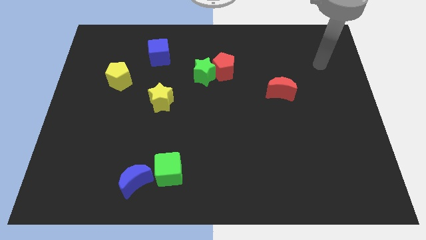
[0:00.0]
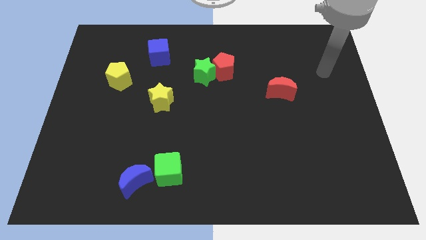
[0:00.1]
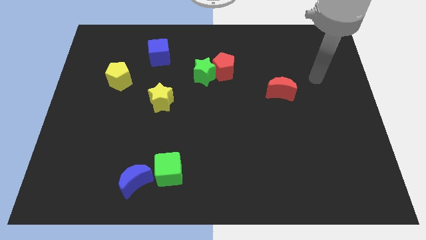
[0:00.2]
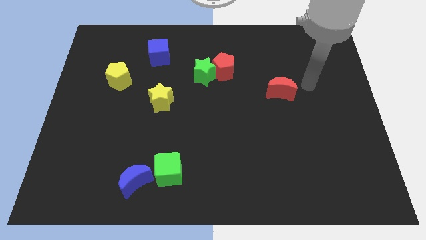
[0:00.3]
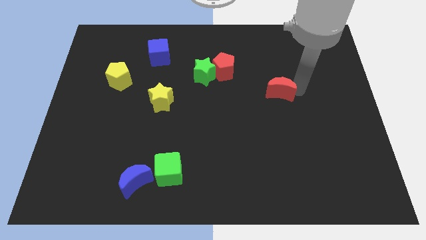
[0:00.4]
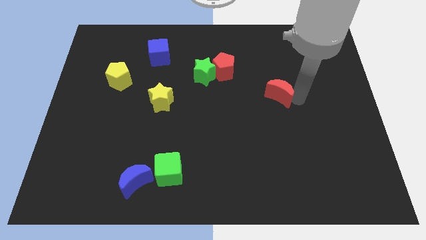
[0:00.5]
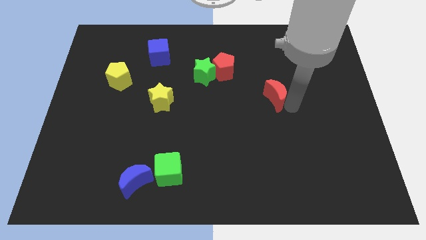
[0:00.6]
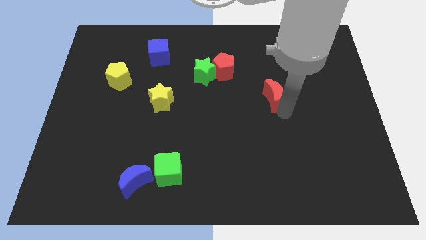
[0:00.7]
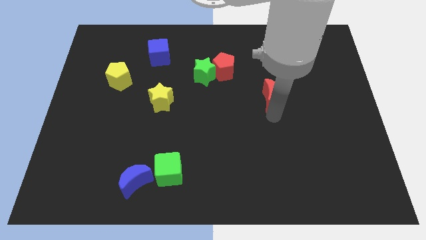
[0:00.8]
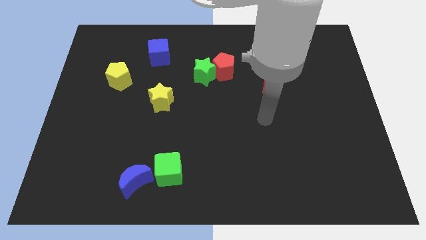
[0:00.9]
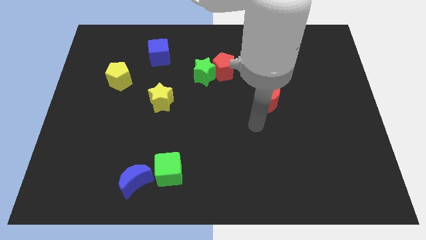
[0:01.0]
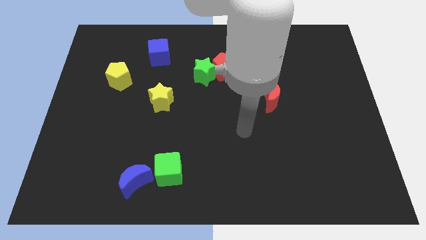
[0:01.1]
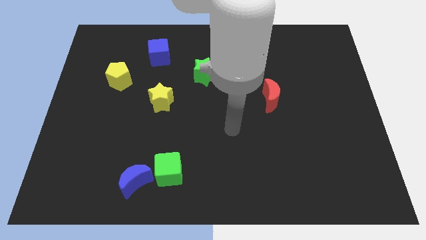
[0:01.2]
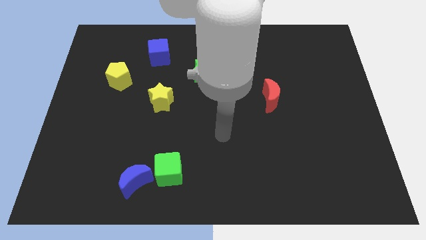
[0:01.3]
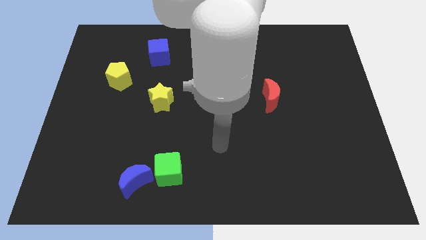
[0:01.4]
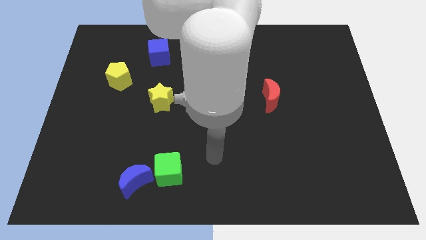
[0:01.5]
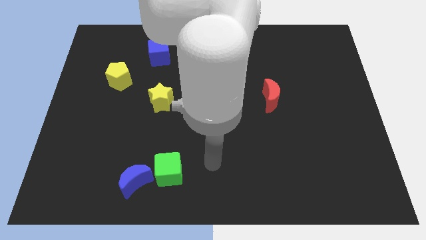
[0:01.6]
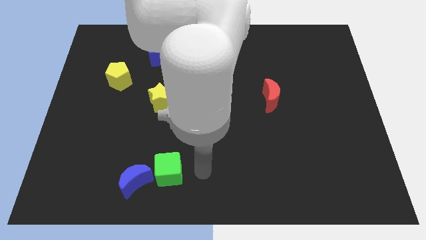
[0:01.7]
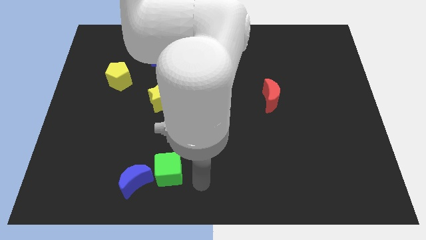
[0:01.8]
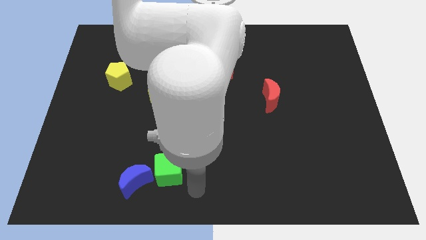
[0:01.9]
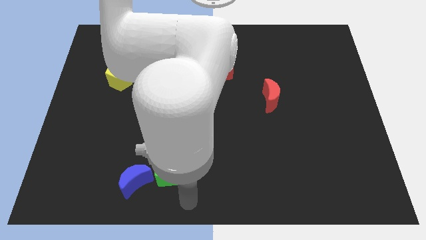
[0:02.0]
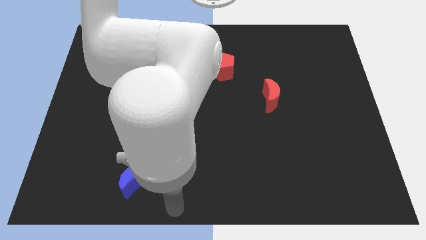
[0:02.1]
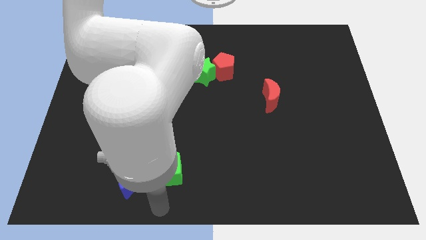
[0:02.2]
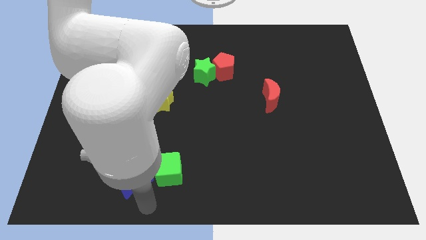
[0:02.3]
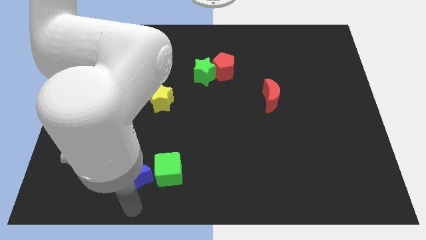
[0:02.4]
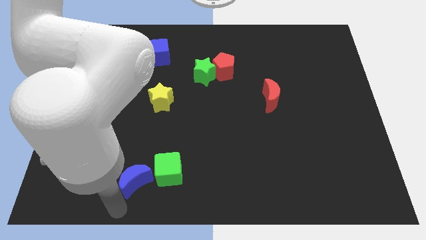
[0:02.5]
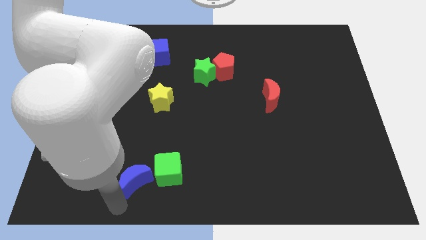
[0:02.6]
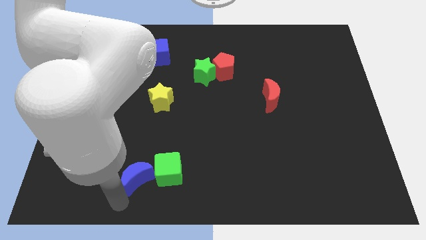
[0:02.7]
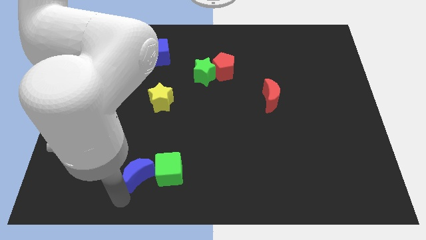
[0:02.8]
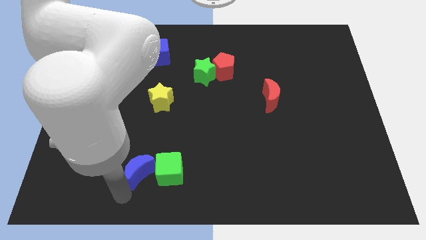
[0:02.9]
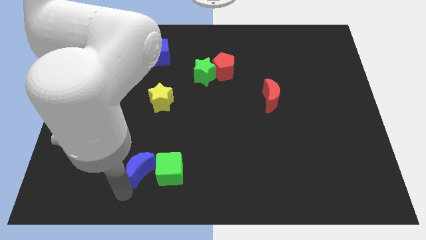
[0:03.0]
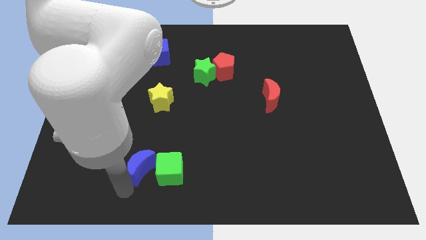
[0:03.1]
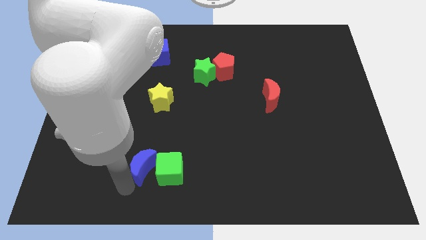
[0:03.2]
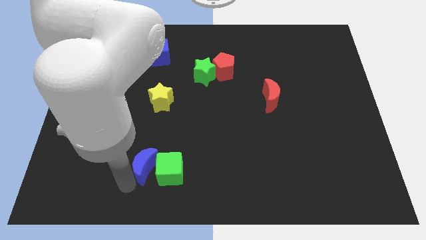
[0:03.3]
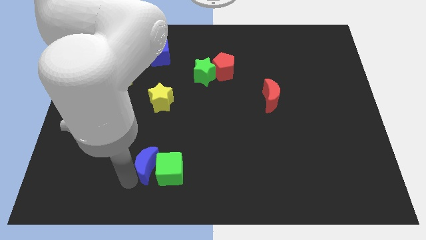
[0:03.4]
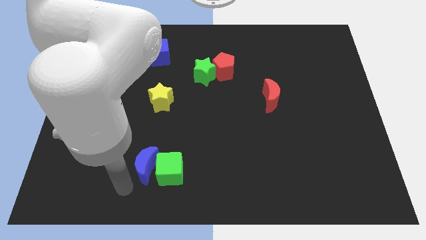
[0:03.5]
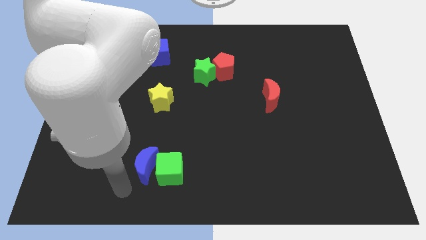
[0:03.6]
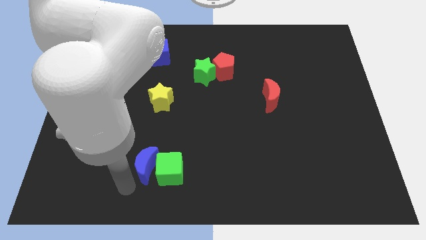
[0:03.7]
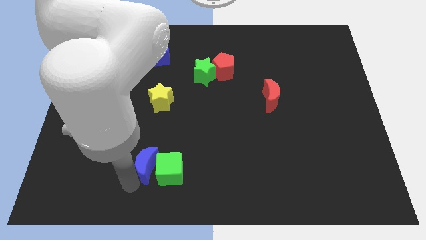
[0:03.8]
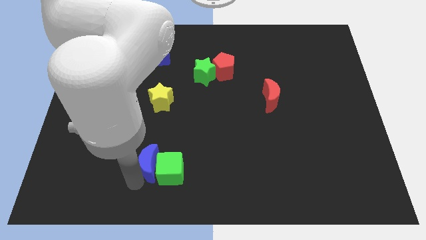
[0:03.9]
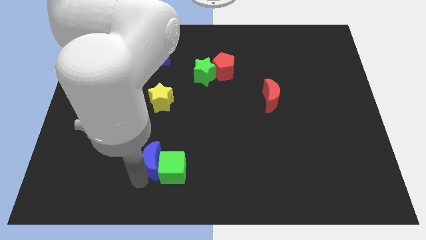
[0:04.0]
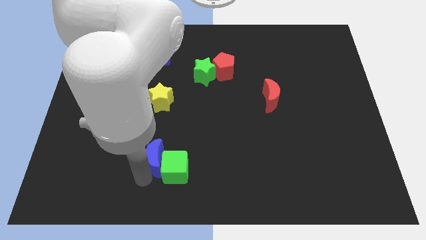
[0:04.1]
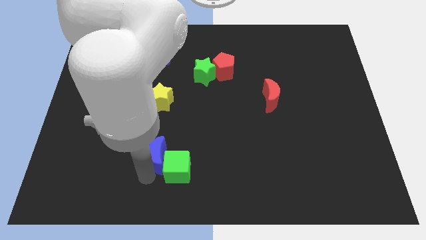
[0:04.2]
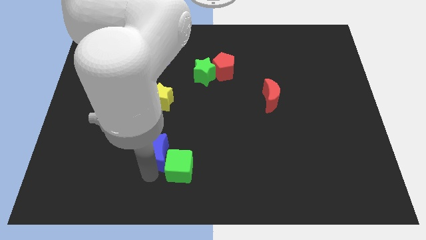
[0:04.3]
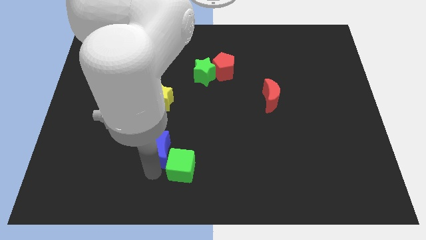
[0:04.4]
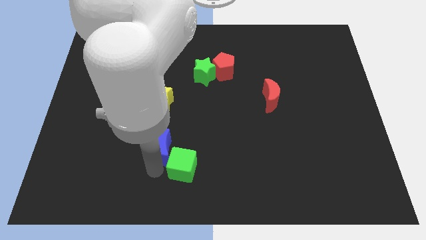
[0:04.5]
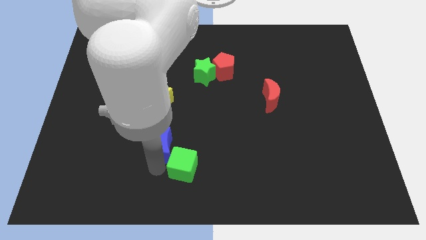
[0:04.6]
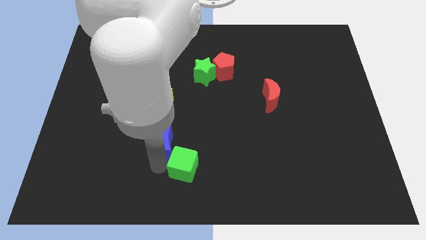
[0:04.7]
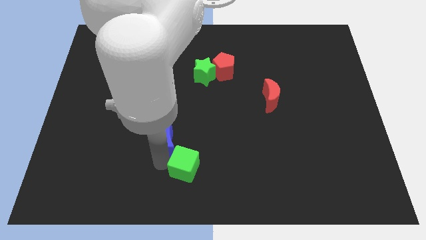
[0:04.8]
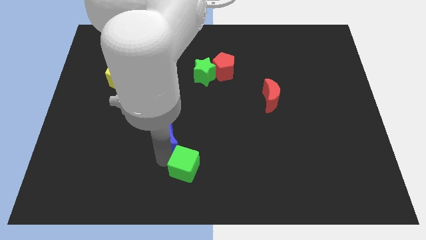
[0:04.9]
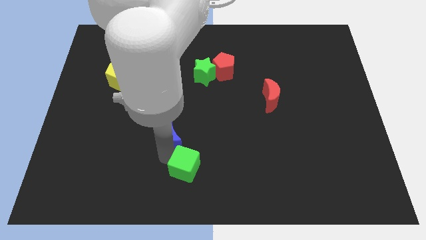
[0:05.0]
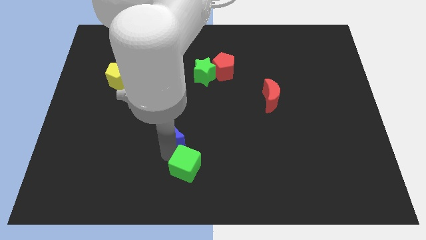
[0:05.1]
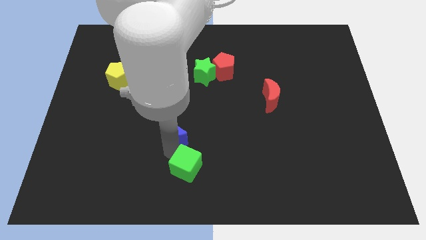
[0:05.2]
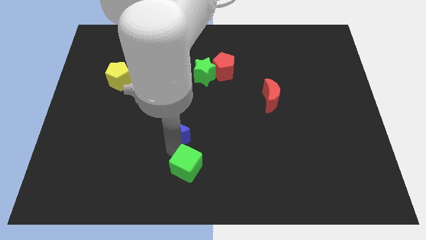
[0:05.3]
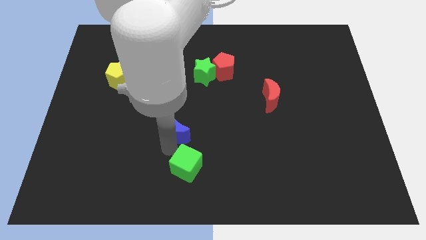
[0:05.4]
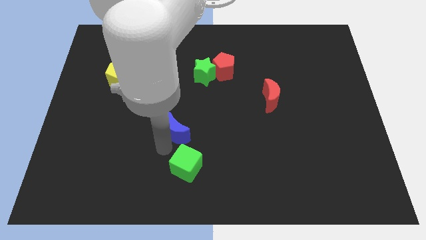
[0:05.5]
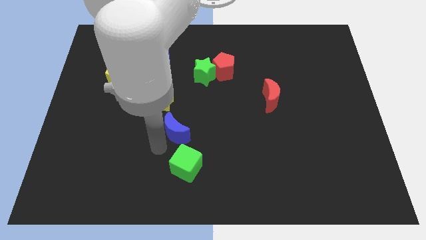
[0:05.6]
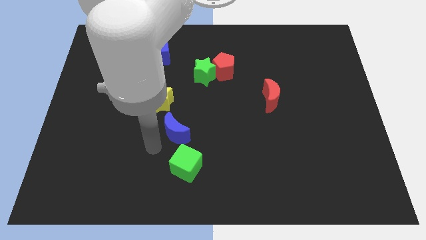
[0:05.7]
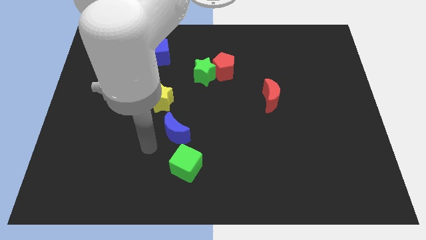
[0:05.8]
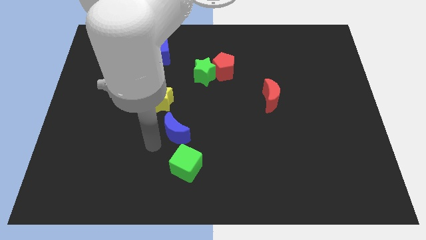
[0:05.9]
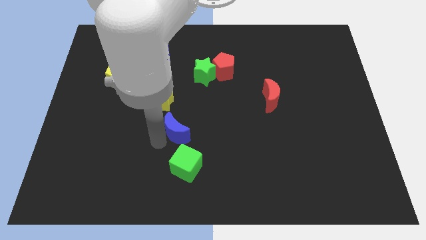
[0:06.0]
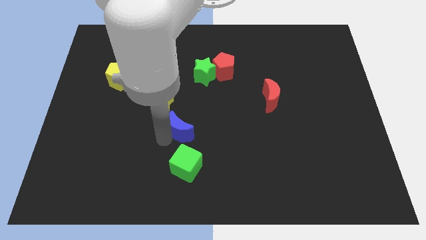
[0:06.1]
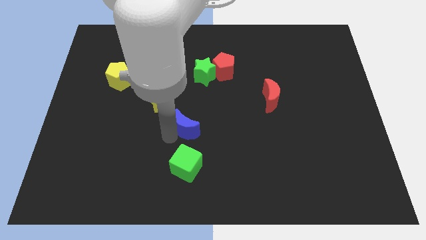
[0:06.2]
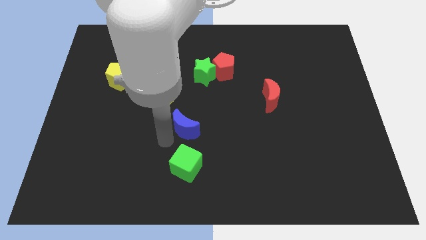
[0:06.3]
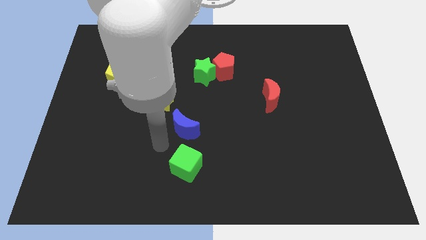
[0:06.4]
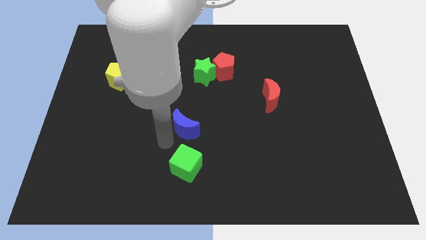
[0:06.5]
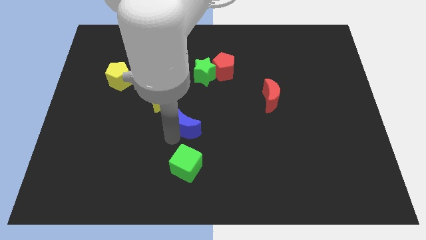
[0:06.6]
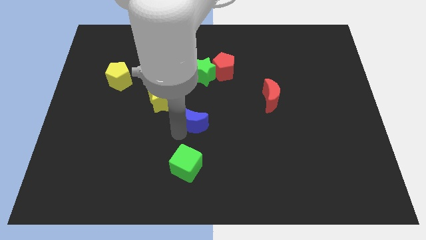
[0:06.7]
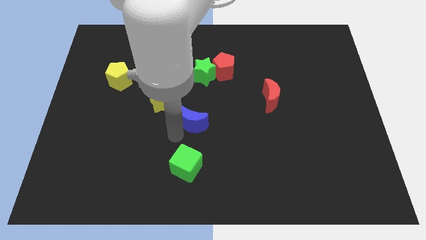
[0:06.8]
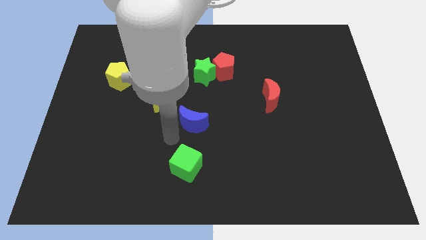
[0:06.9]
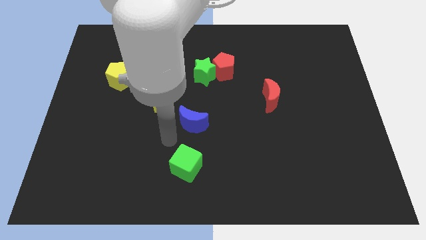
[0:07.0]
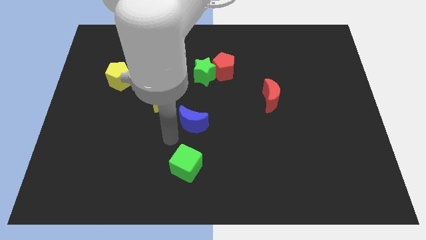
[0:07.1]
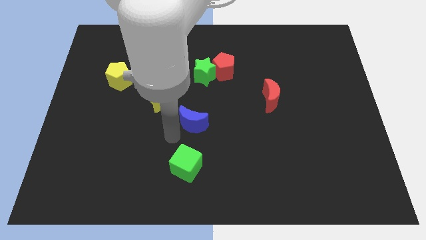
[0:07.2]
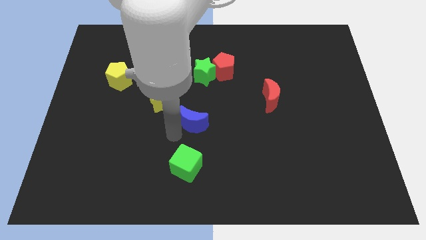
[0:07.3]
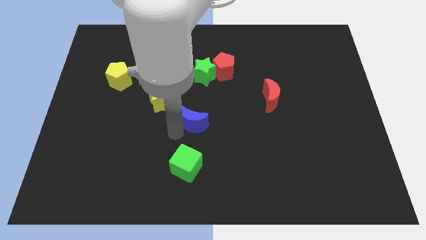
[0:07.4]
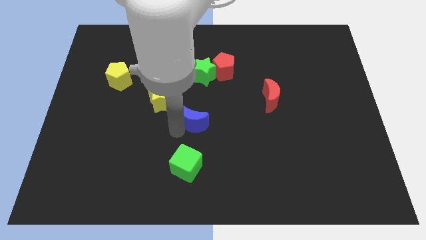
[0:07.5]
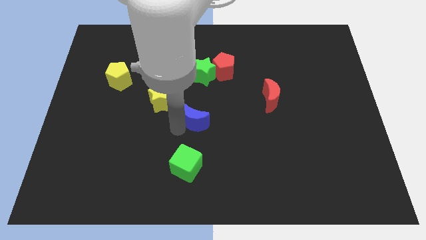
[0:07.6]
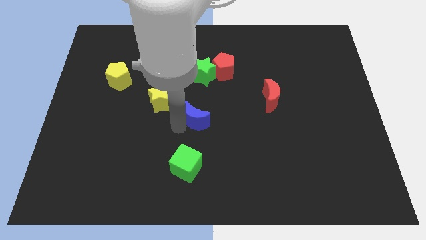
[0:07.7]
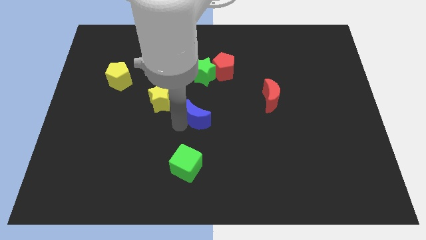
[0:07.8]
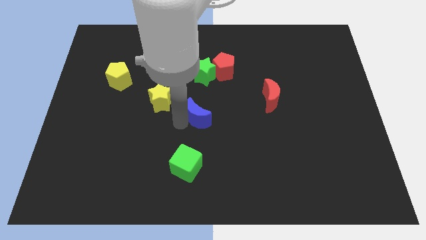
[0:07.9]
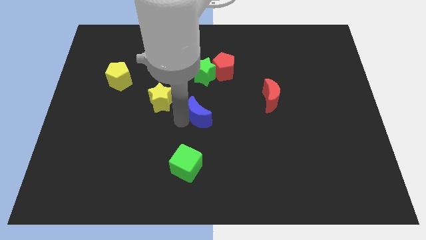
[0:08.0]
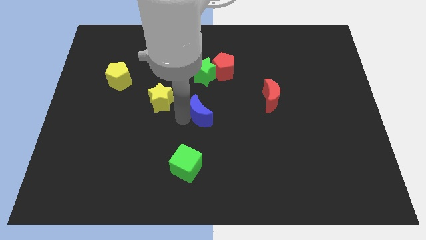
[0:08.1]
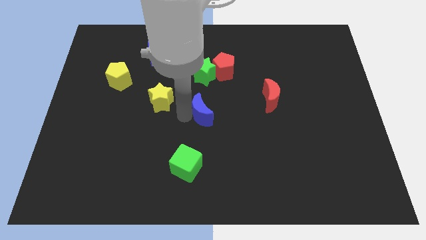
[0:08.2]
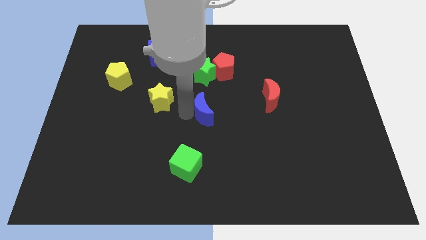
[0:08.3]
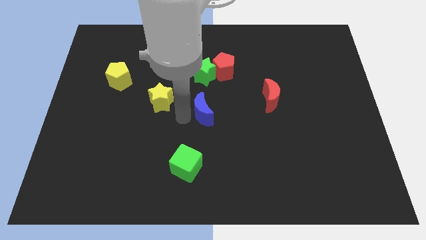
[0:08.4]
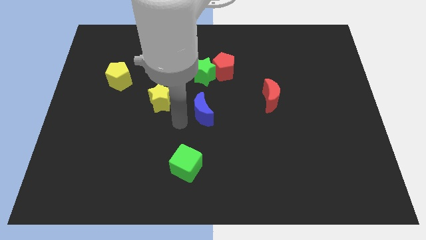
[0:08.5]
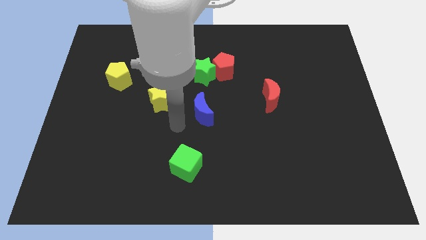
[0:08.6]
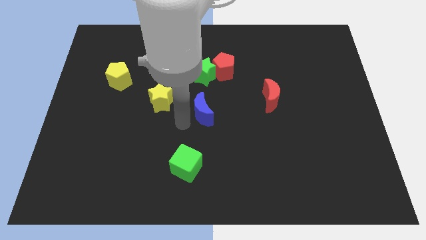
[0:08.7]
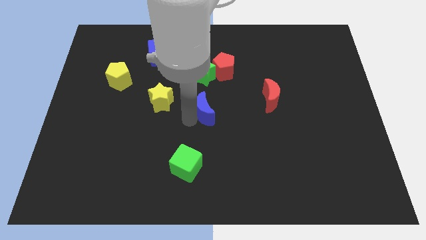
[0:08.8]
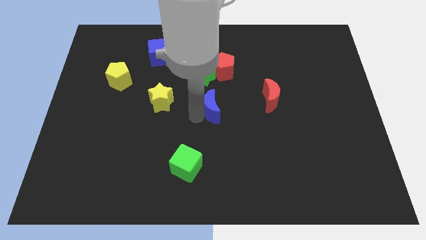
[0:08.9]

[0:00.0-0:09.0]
slide the blue moon to the bottom of the red pentagon
